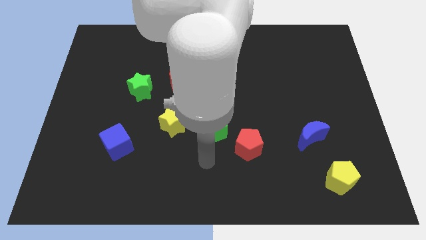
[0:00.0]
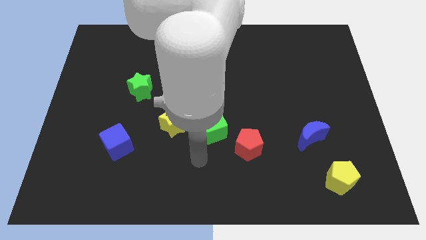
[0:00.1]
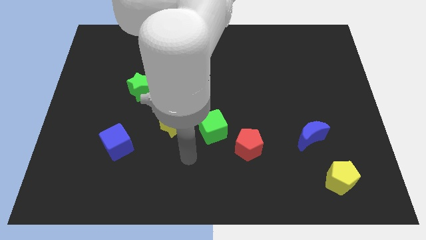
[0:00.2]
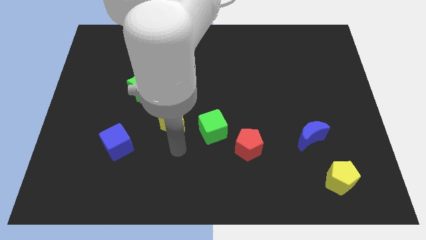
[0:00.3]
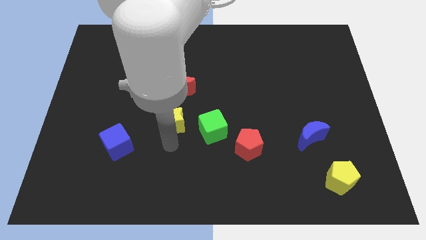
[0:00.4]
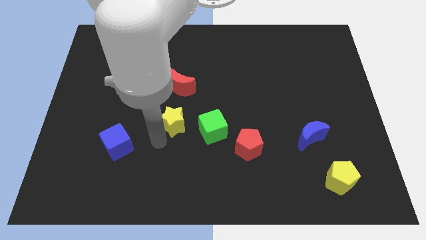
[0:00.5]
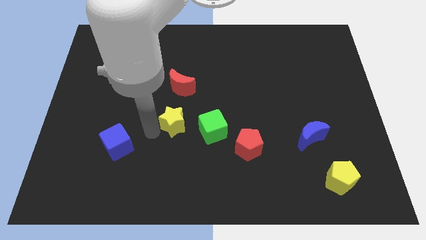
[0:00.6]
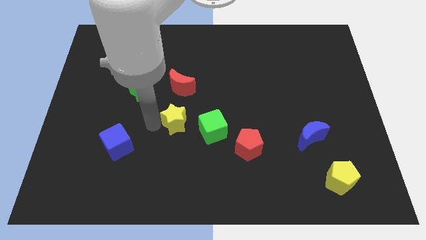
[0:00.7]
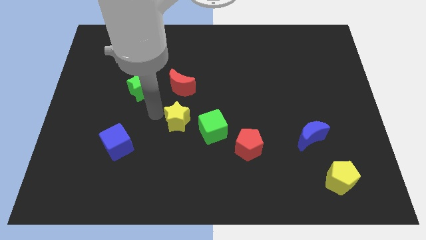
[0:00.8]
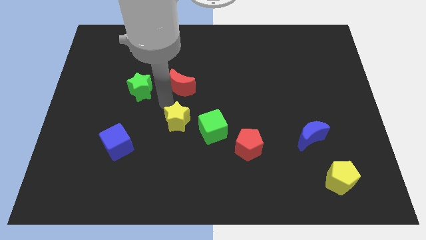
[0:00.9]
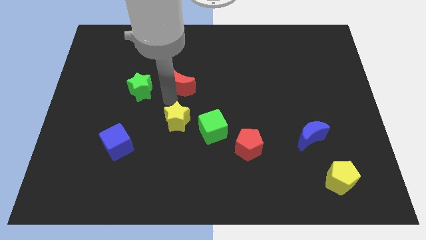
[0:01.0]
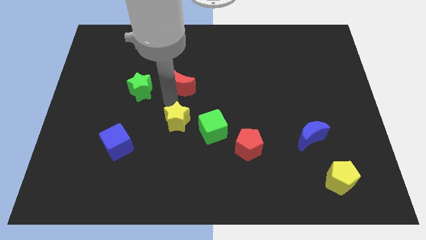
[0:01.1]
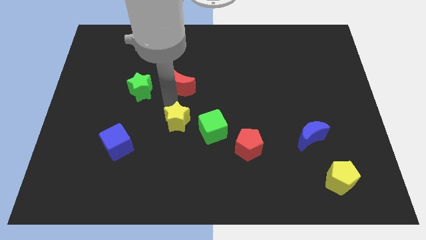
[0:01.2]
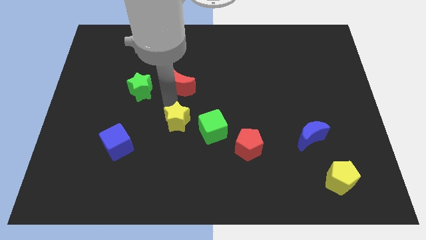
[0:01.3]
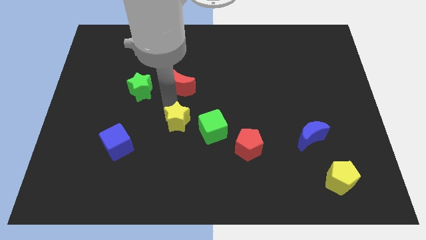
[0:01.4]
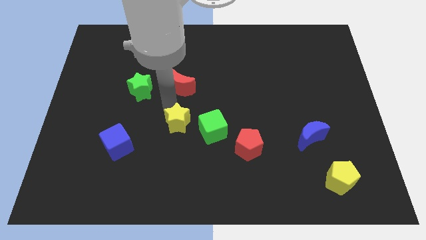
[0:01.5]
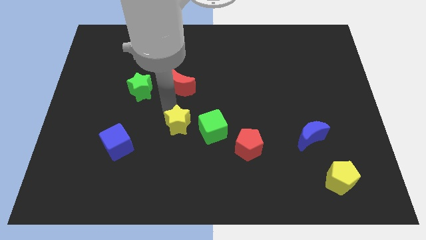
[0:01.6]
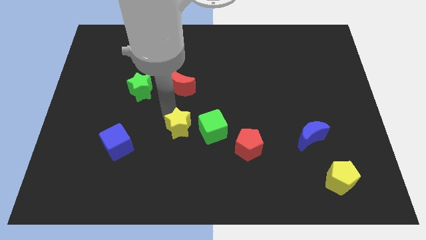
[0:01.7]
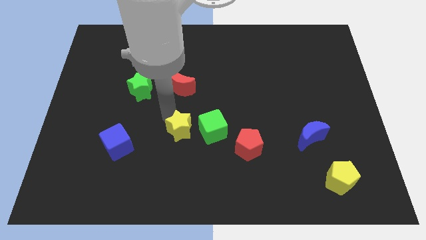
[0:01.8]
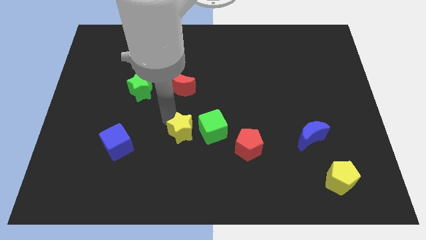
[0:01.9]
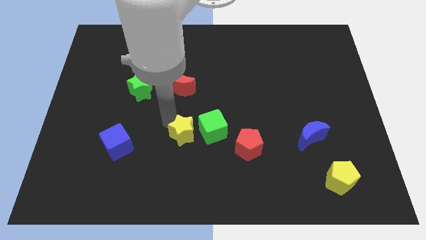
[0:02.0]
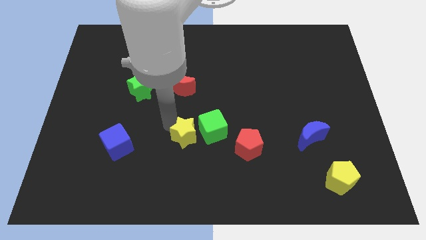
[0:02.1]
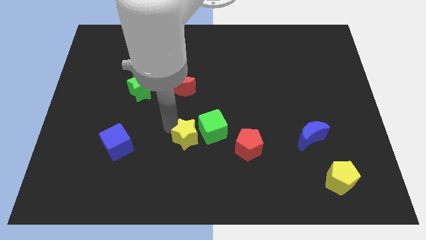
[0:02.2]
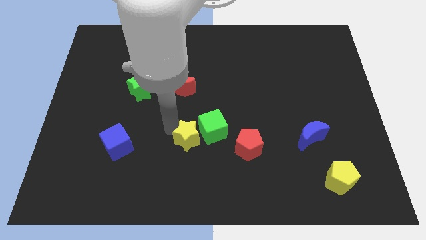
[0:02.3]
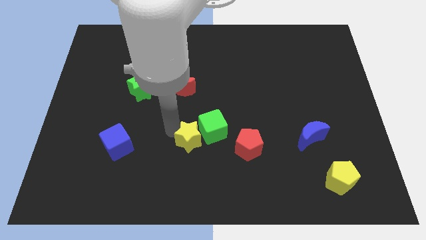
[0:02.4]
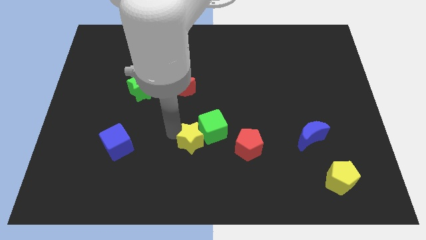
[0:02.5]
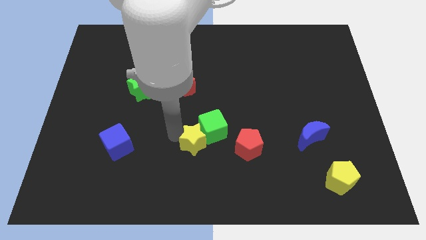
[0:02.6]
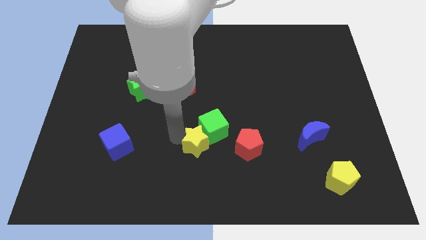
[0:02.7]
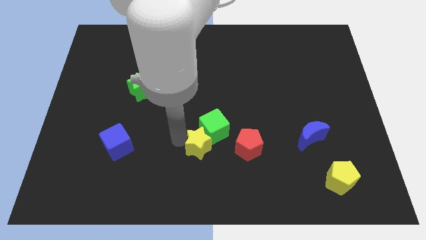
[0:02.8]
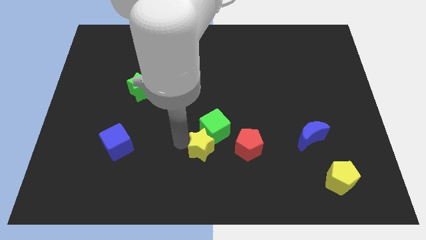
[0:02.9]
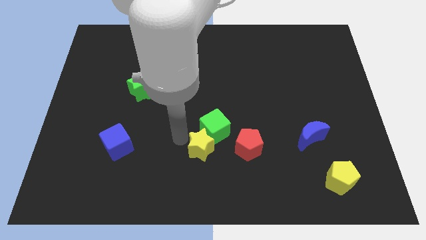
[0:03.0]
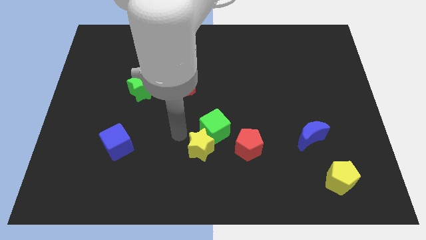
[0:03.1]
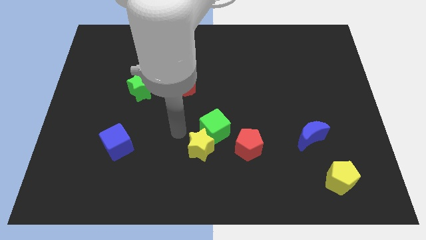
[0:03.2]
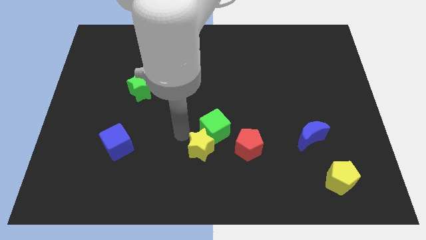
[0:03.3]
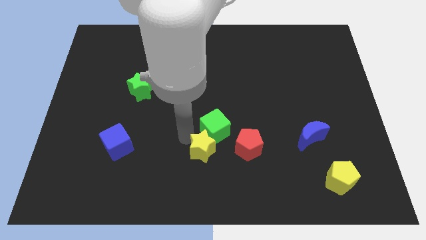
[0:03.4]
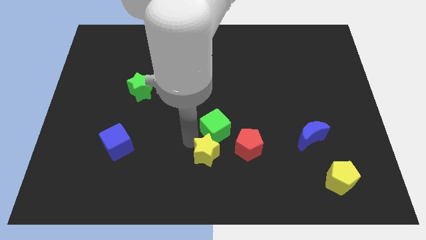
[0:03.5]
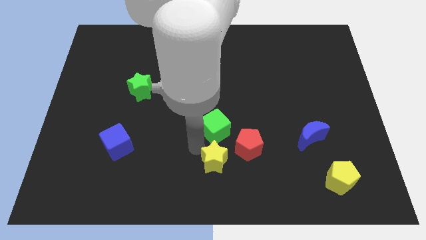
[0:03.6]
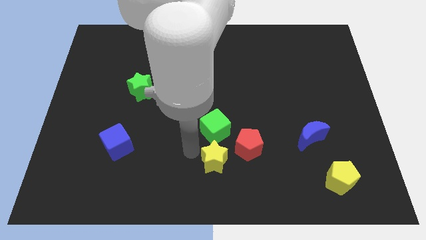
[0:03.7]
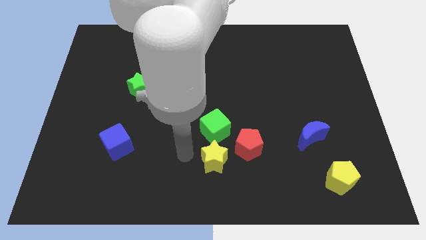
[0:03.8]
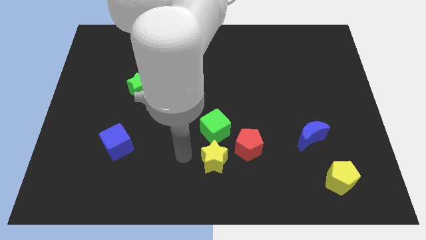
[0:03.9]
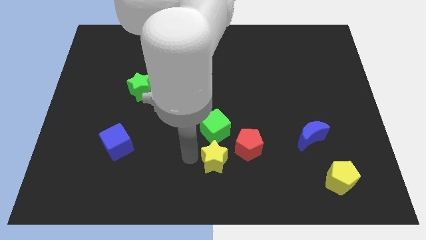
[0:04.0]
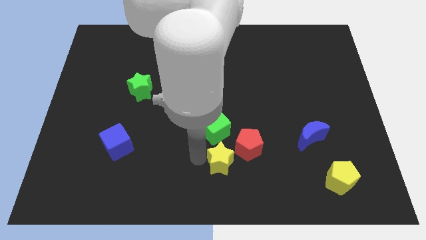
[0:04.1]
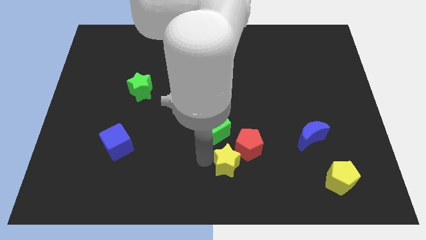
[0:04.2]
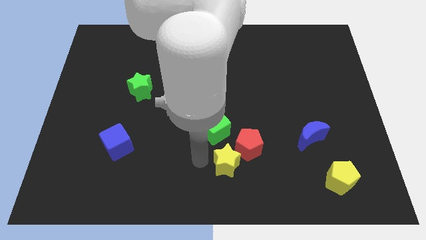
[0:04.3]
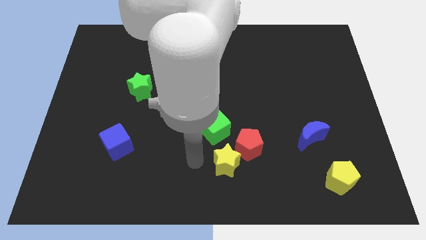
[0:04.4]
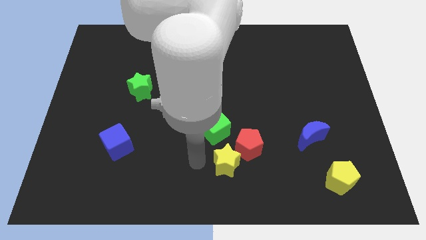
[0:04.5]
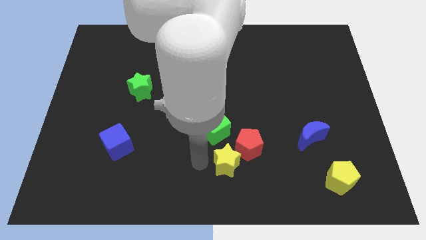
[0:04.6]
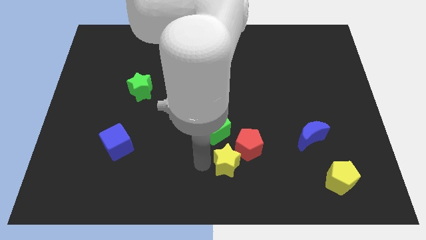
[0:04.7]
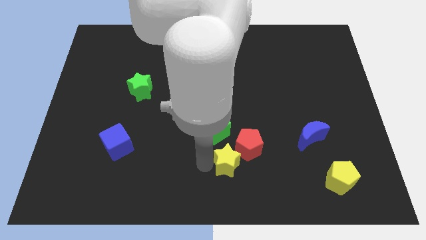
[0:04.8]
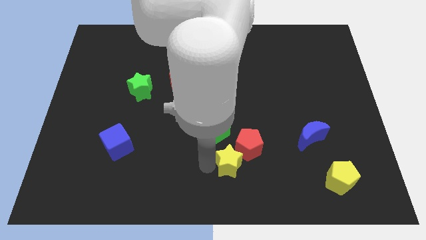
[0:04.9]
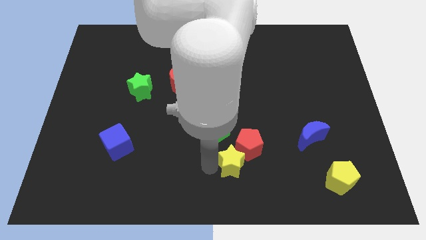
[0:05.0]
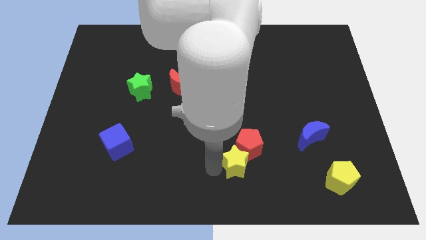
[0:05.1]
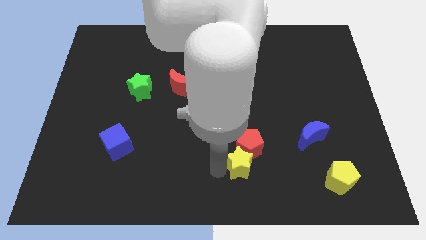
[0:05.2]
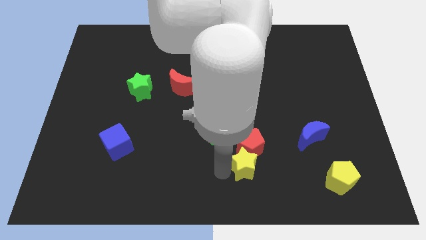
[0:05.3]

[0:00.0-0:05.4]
put the yellow star to the bottom right side of the red pentagon

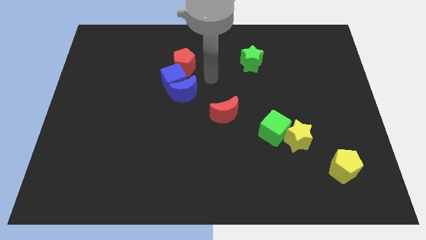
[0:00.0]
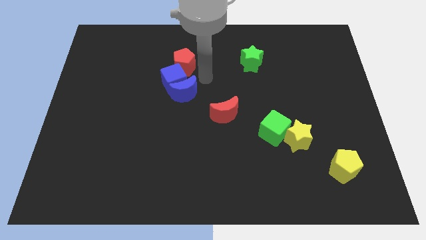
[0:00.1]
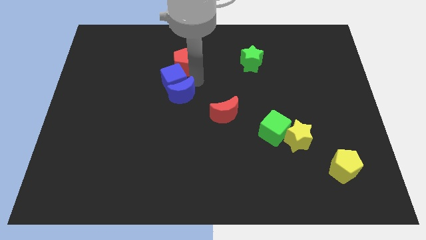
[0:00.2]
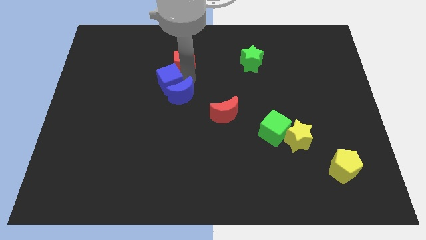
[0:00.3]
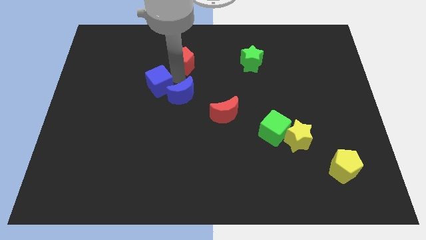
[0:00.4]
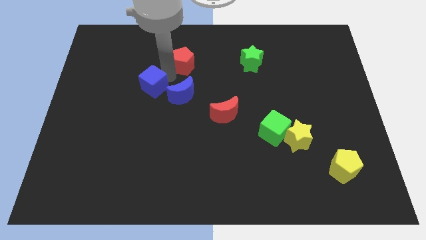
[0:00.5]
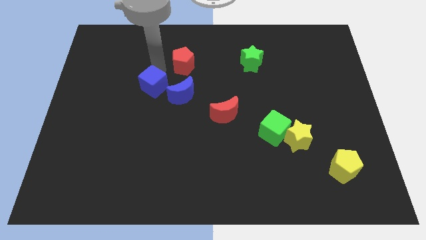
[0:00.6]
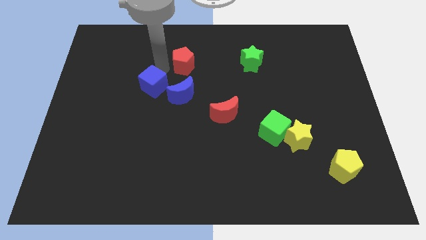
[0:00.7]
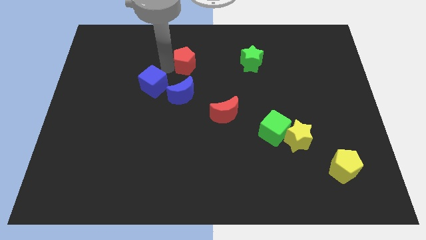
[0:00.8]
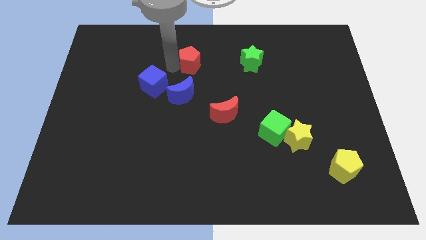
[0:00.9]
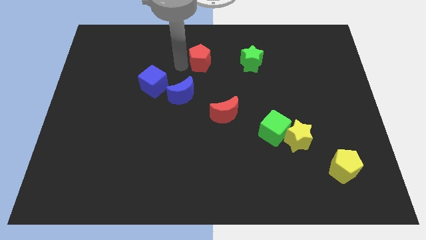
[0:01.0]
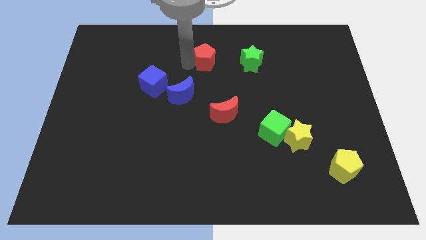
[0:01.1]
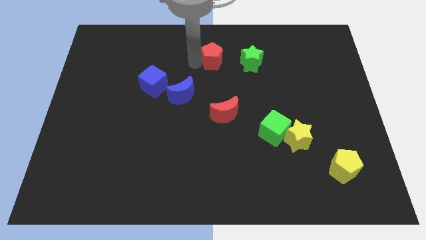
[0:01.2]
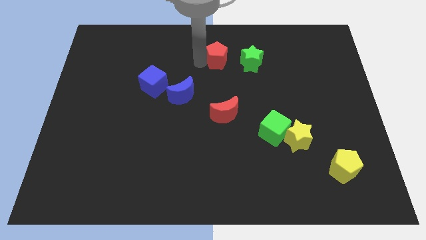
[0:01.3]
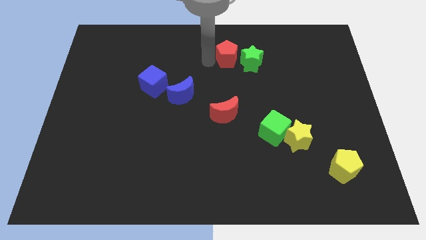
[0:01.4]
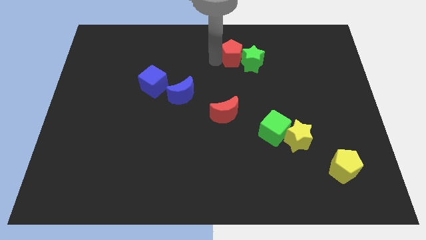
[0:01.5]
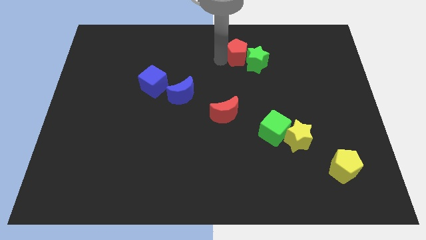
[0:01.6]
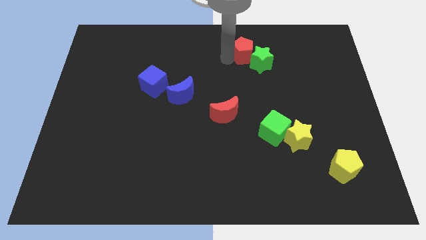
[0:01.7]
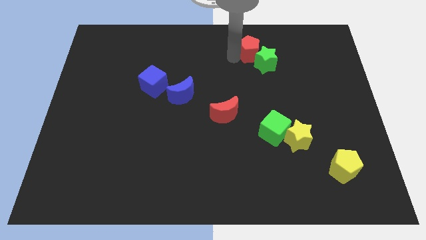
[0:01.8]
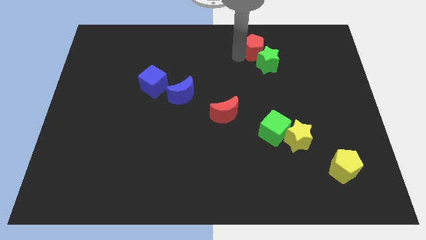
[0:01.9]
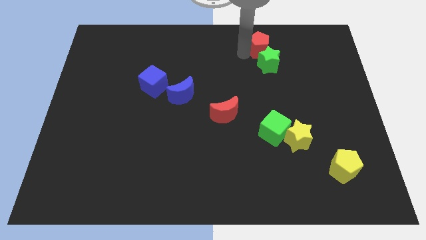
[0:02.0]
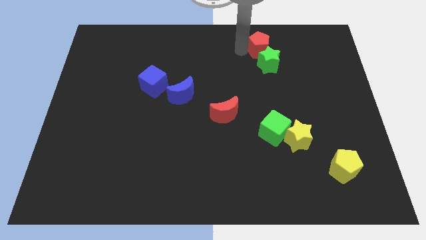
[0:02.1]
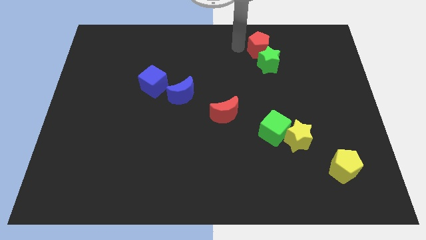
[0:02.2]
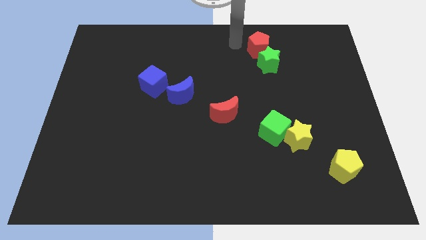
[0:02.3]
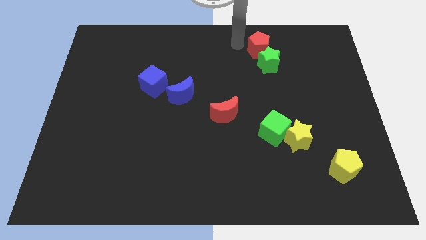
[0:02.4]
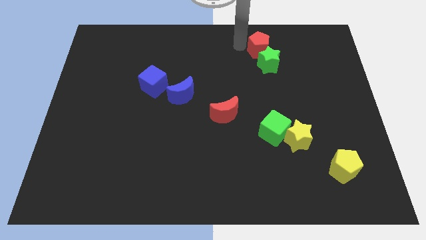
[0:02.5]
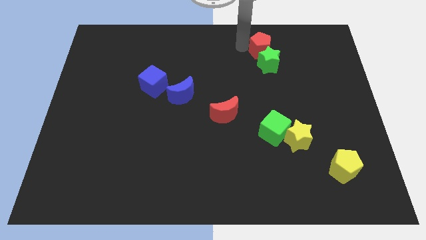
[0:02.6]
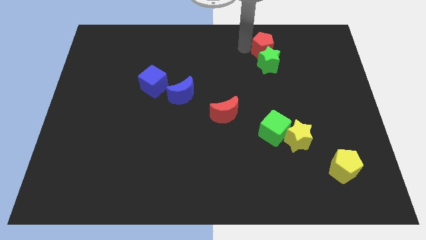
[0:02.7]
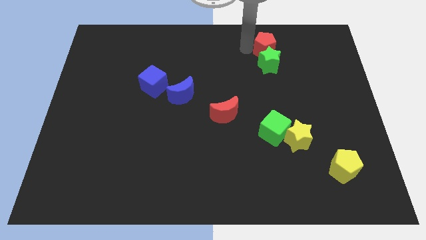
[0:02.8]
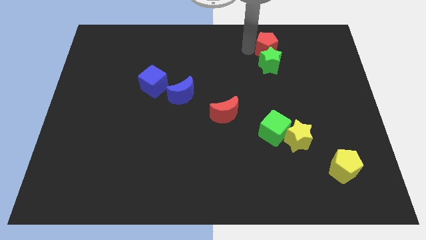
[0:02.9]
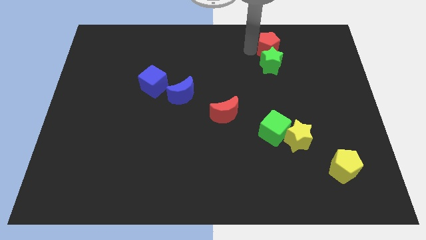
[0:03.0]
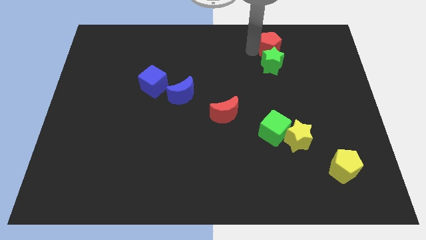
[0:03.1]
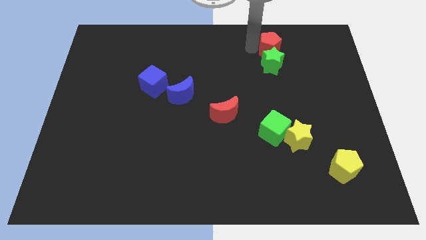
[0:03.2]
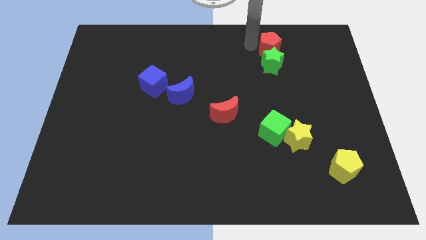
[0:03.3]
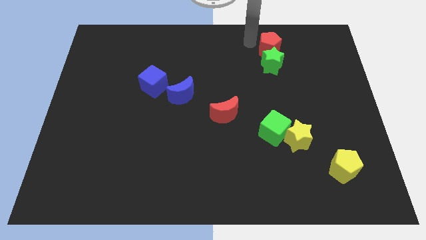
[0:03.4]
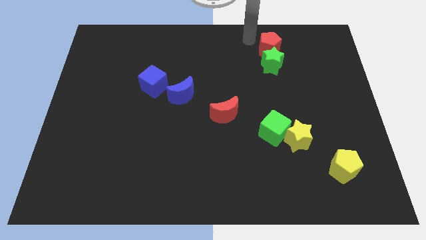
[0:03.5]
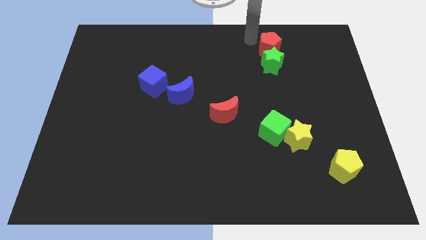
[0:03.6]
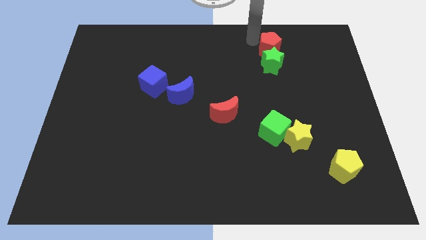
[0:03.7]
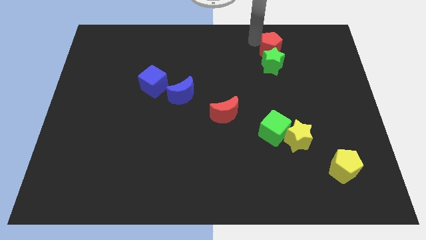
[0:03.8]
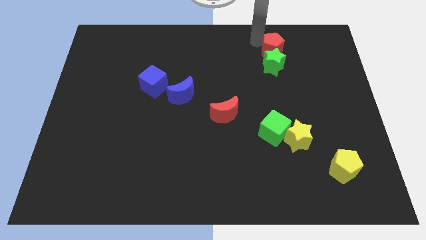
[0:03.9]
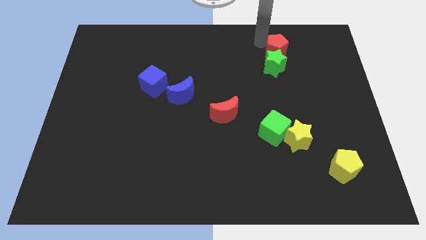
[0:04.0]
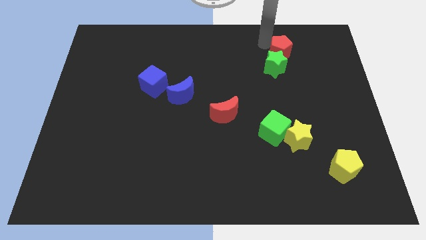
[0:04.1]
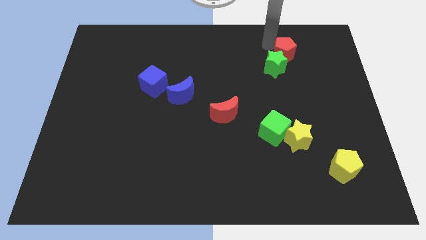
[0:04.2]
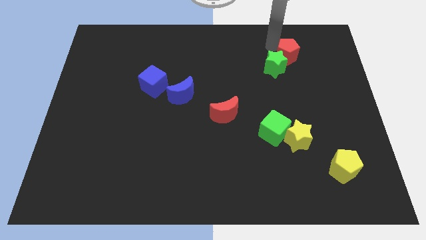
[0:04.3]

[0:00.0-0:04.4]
slide the red pentagon to the right of the green star
